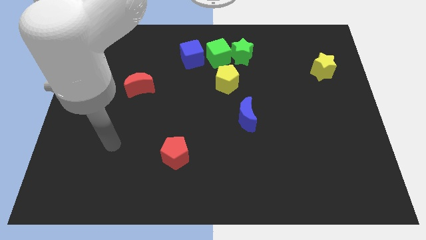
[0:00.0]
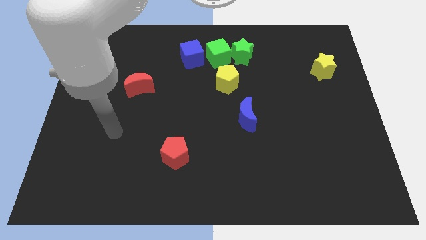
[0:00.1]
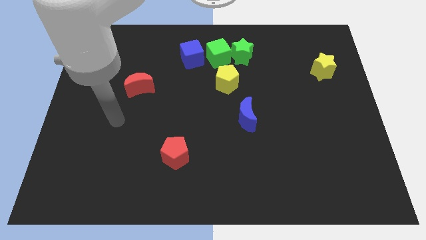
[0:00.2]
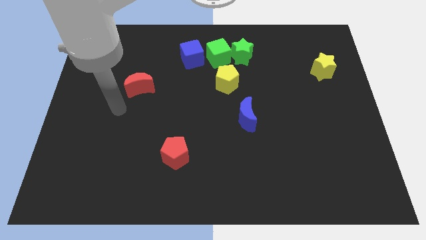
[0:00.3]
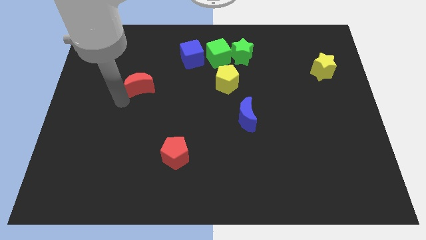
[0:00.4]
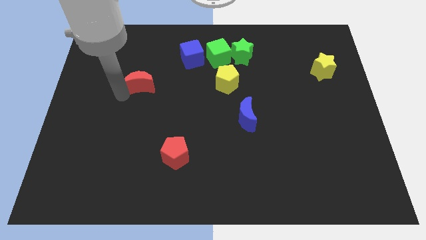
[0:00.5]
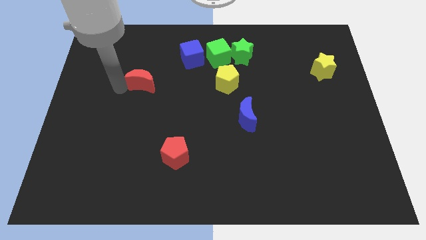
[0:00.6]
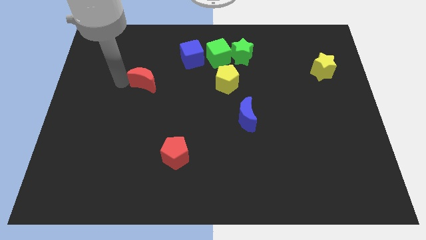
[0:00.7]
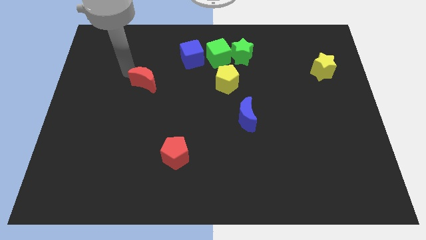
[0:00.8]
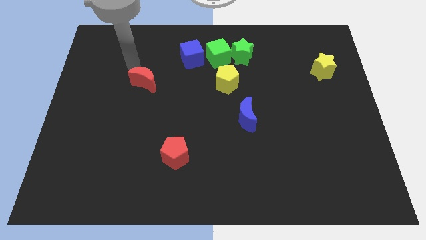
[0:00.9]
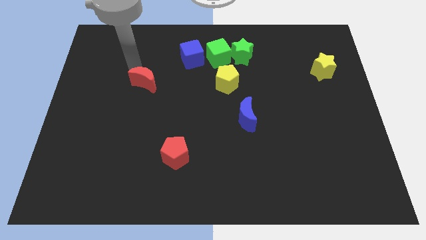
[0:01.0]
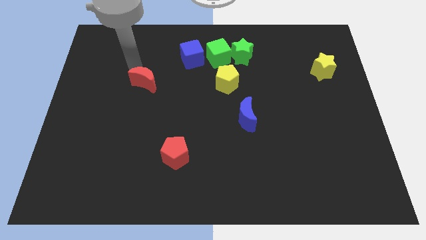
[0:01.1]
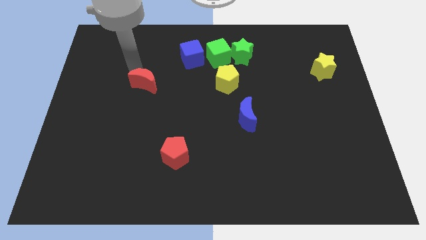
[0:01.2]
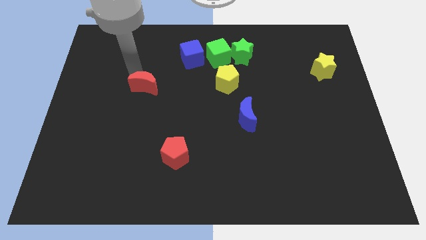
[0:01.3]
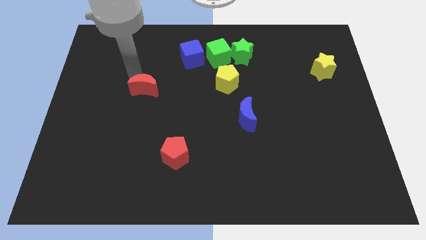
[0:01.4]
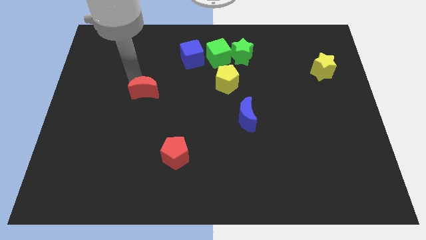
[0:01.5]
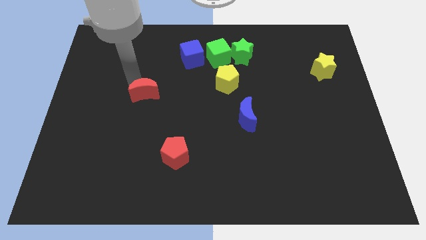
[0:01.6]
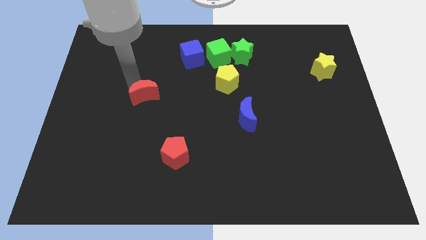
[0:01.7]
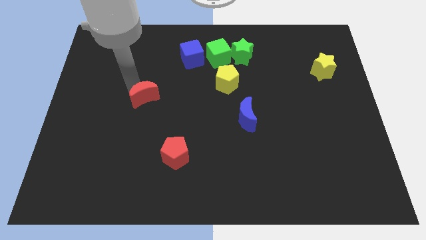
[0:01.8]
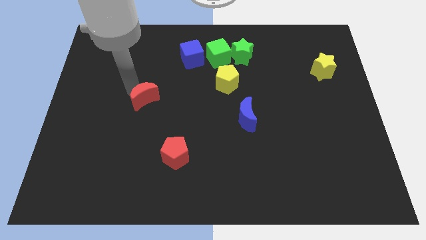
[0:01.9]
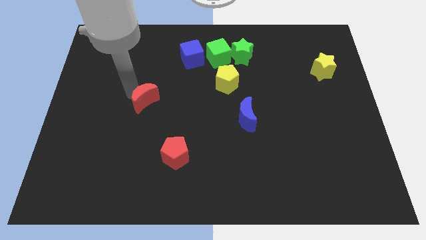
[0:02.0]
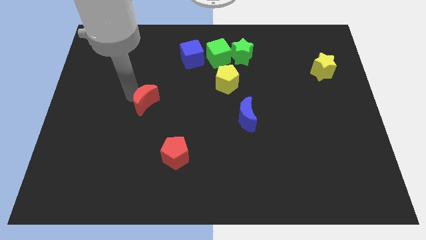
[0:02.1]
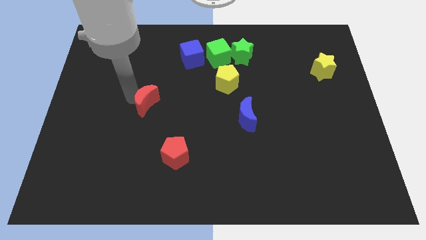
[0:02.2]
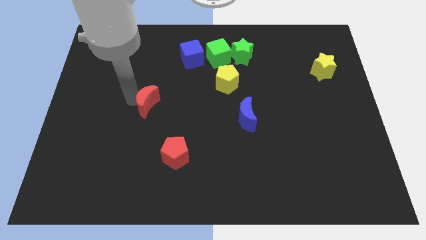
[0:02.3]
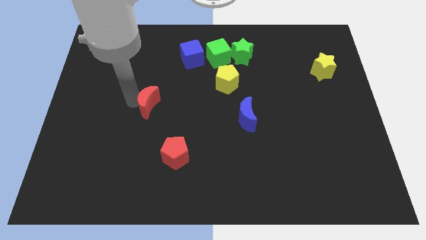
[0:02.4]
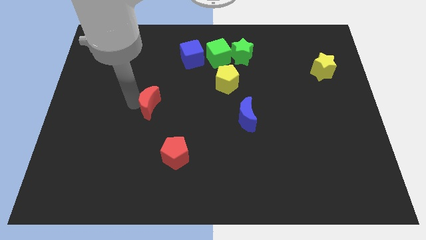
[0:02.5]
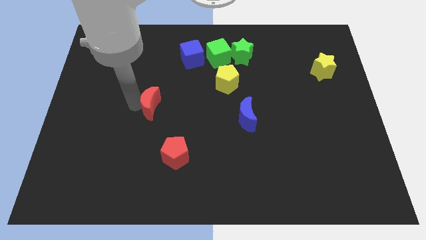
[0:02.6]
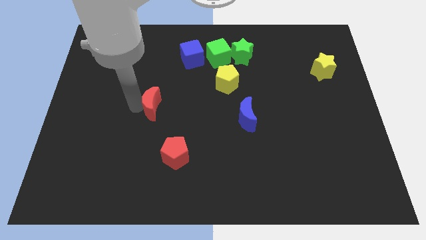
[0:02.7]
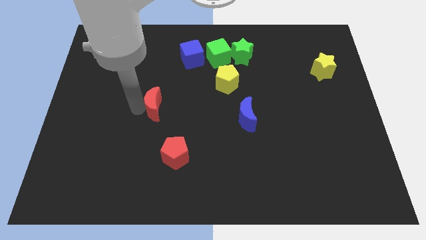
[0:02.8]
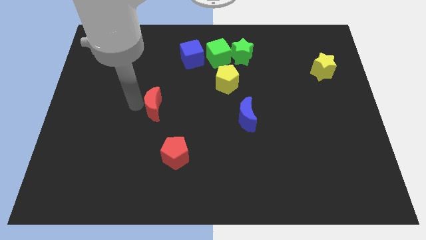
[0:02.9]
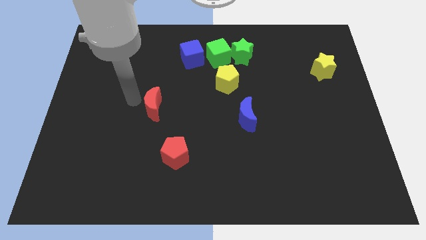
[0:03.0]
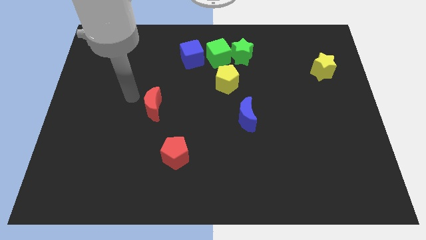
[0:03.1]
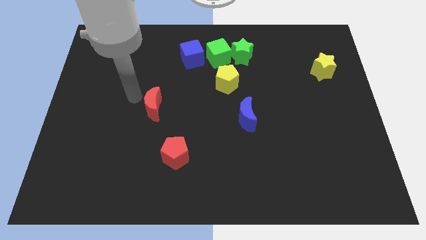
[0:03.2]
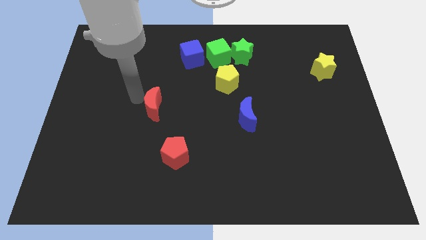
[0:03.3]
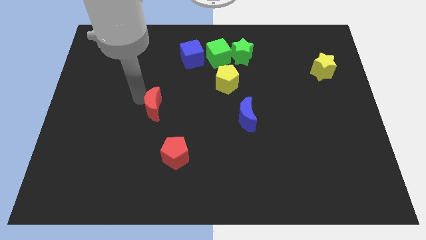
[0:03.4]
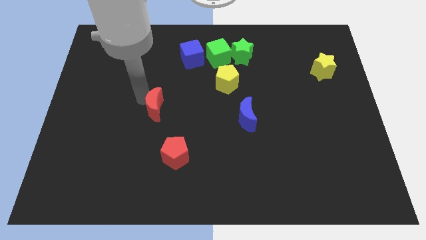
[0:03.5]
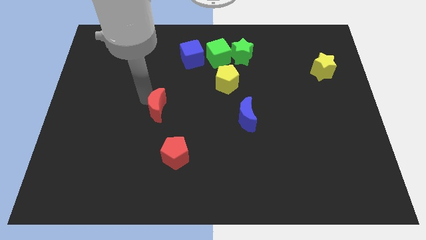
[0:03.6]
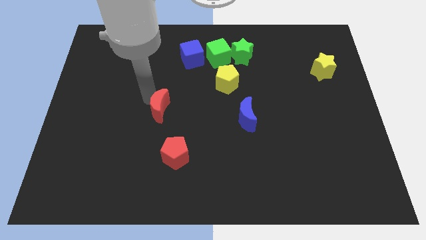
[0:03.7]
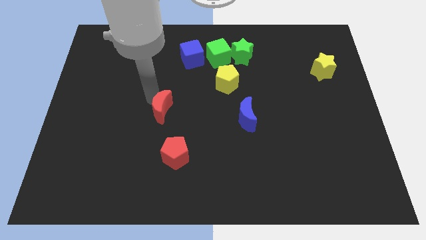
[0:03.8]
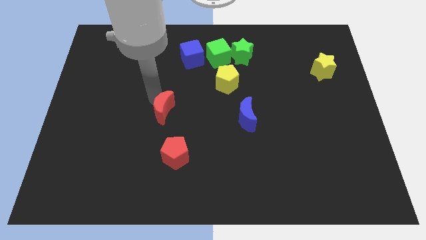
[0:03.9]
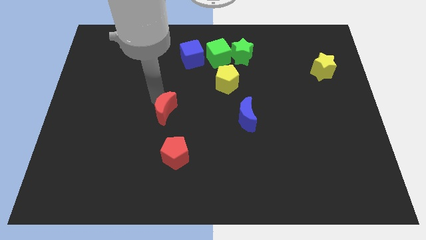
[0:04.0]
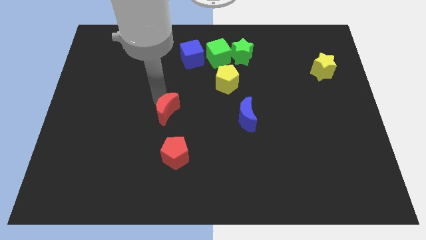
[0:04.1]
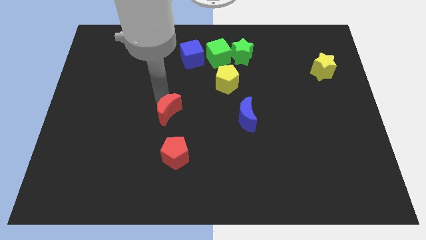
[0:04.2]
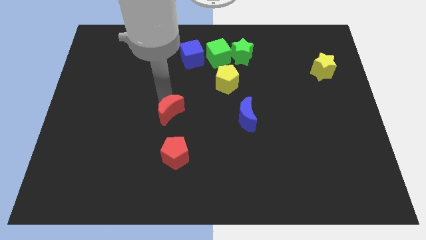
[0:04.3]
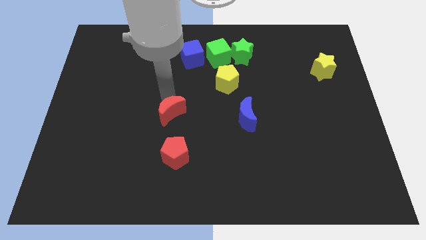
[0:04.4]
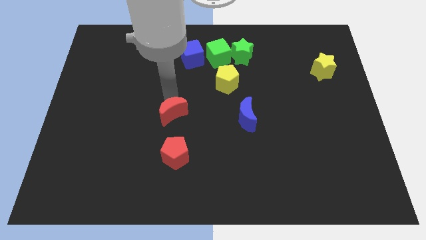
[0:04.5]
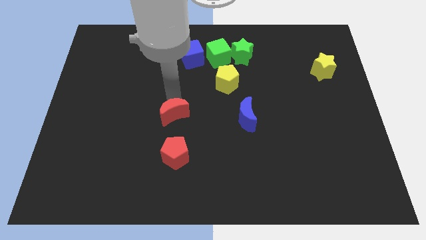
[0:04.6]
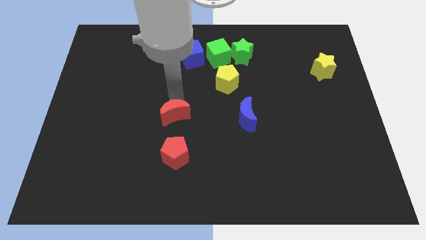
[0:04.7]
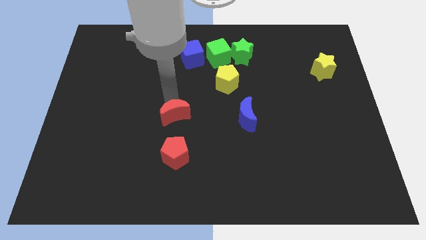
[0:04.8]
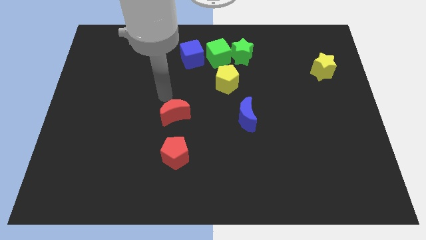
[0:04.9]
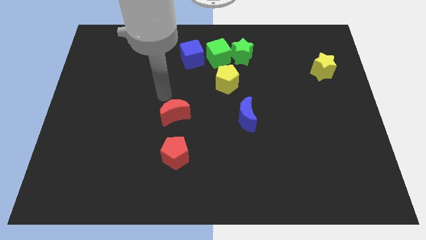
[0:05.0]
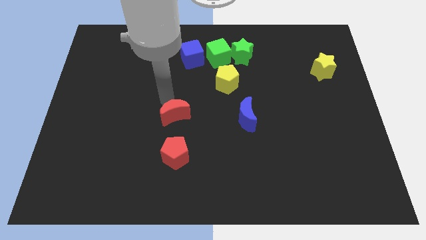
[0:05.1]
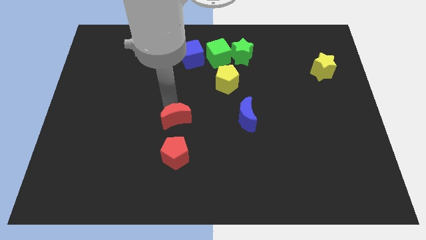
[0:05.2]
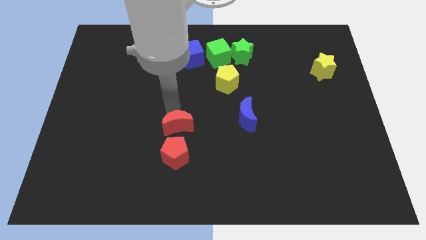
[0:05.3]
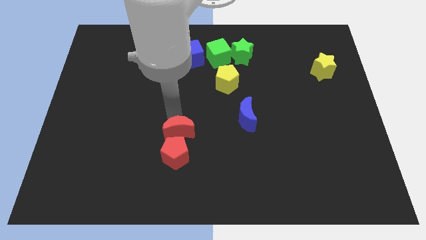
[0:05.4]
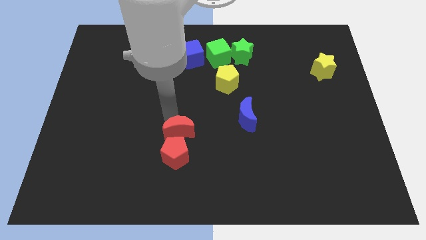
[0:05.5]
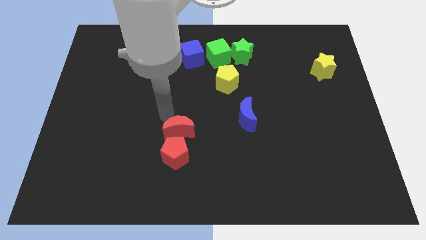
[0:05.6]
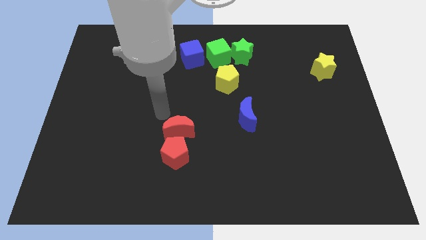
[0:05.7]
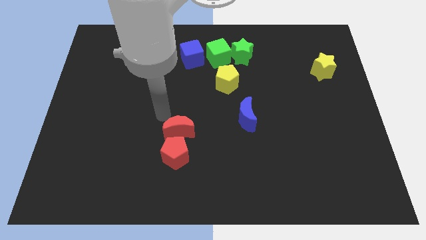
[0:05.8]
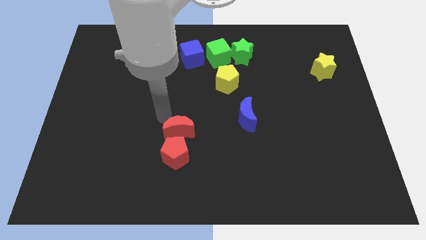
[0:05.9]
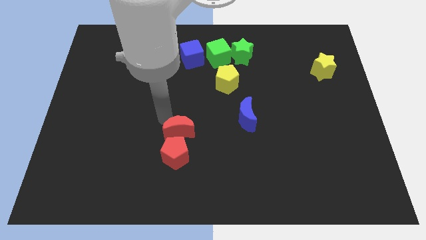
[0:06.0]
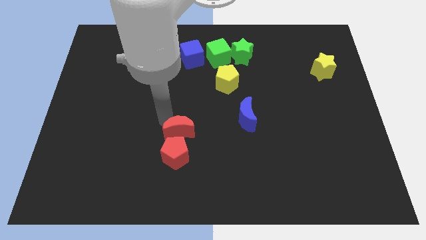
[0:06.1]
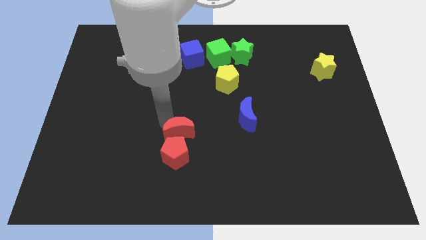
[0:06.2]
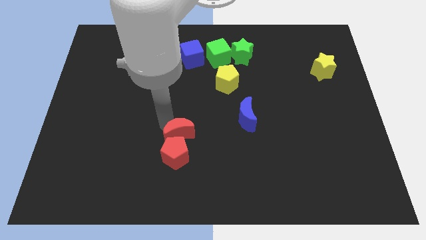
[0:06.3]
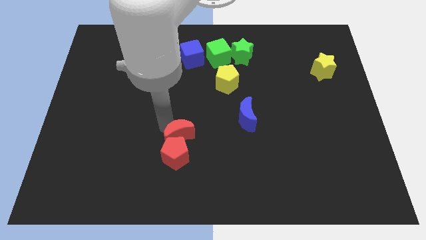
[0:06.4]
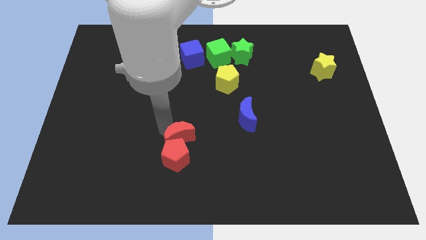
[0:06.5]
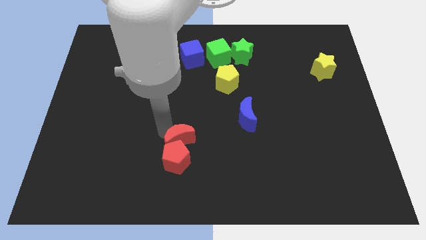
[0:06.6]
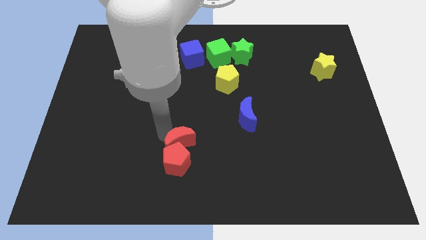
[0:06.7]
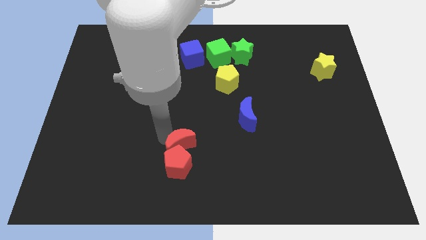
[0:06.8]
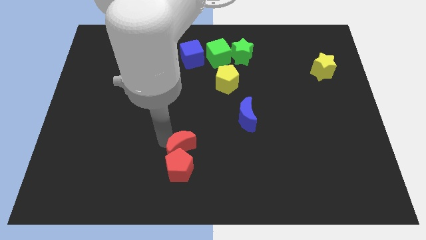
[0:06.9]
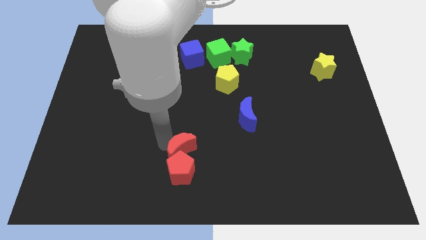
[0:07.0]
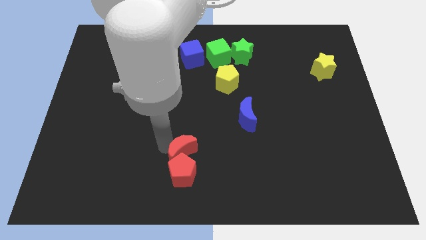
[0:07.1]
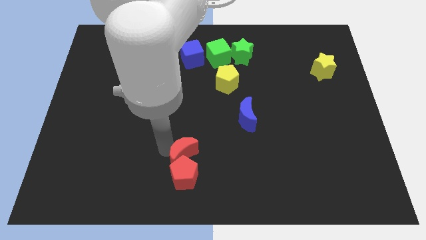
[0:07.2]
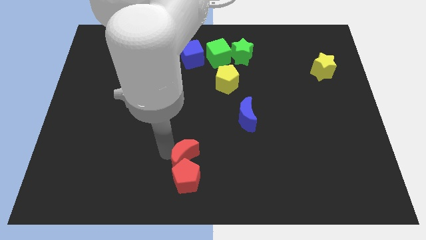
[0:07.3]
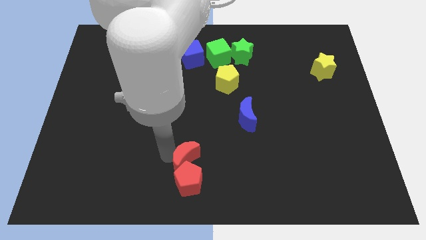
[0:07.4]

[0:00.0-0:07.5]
move the red moon to the bottom side

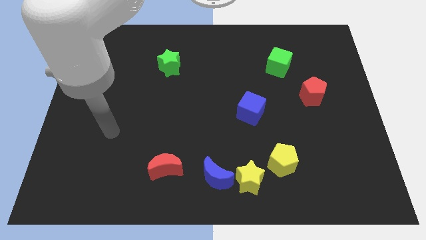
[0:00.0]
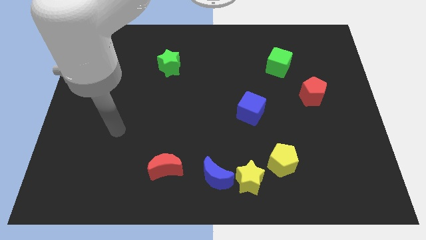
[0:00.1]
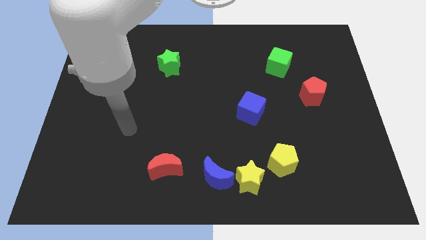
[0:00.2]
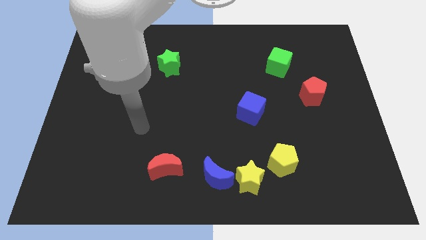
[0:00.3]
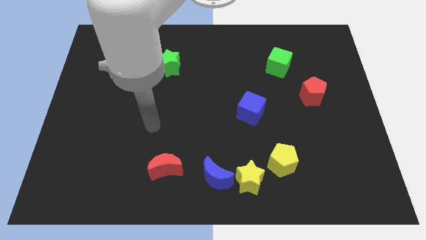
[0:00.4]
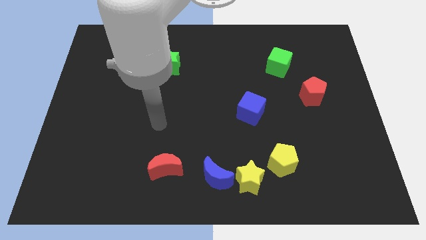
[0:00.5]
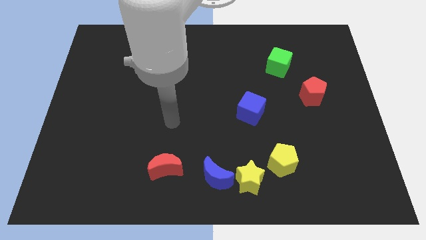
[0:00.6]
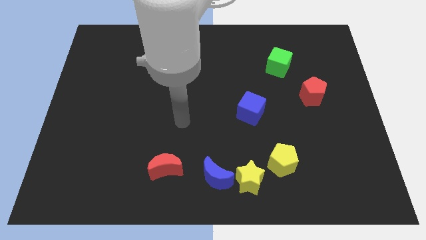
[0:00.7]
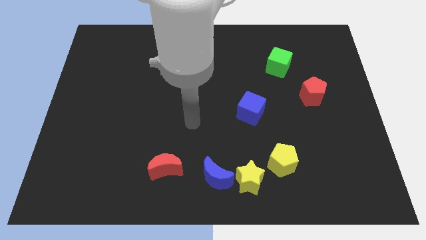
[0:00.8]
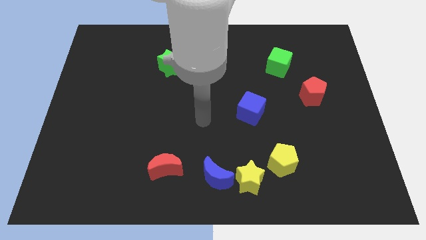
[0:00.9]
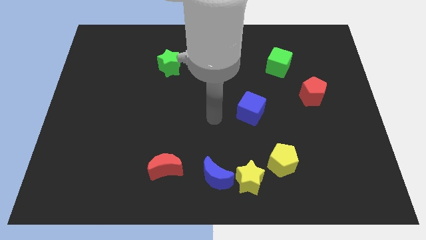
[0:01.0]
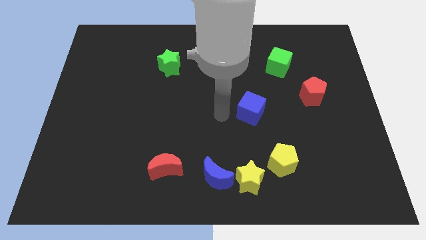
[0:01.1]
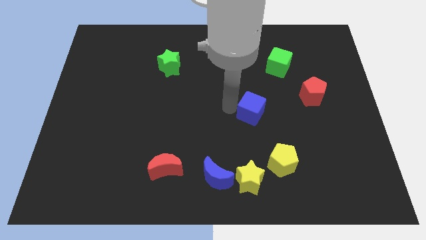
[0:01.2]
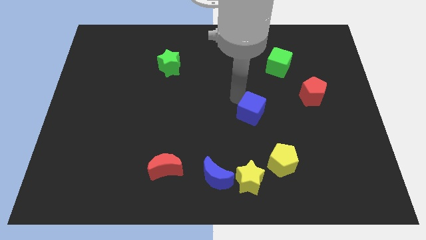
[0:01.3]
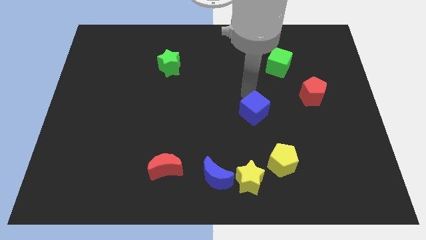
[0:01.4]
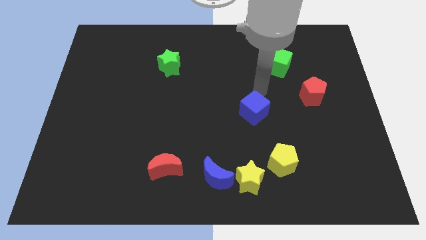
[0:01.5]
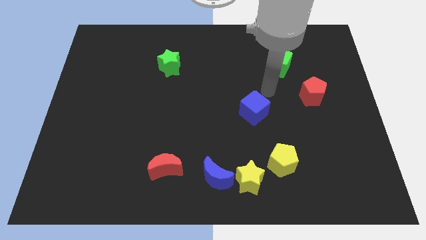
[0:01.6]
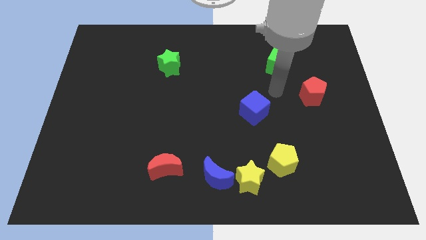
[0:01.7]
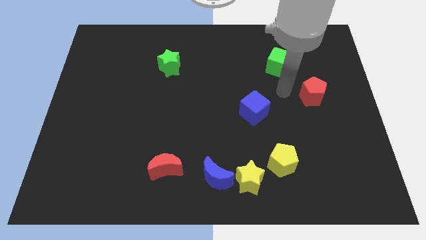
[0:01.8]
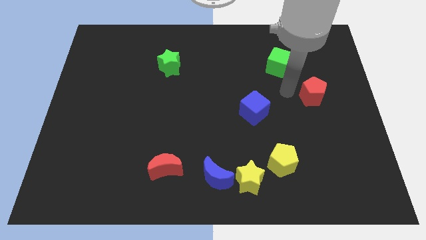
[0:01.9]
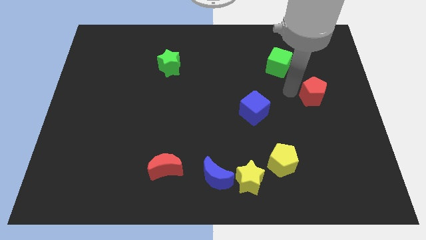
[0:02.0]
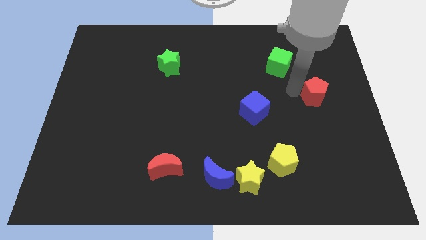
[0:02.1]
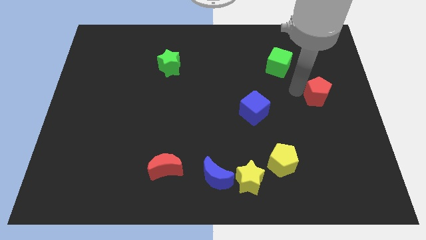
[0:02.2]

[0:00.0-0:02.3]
push the red pentagon to the right side
